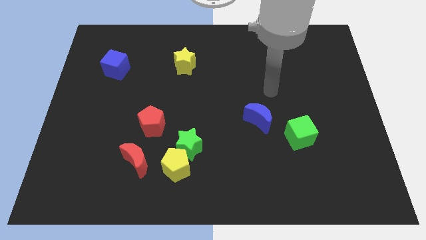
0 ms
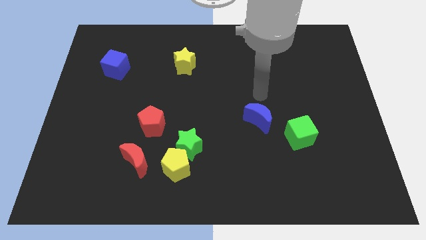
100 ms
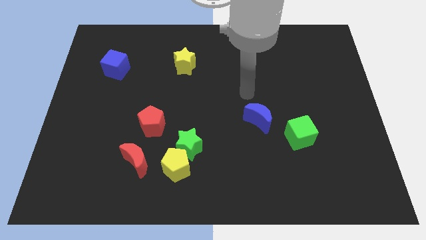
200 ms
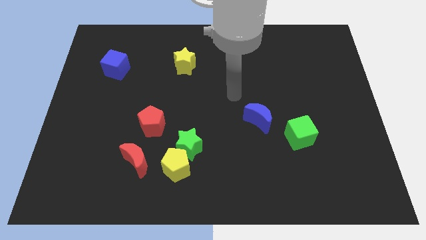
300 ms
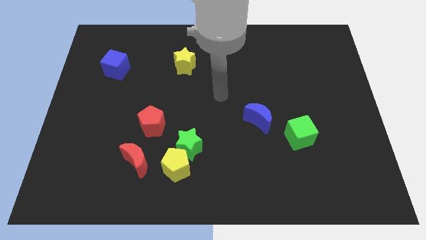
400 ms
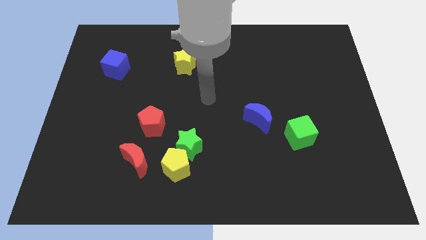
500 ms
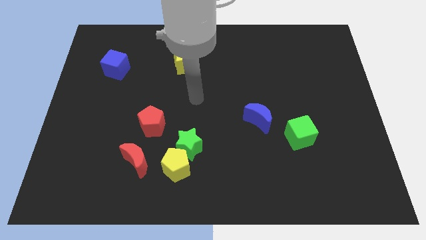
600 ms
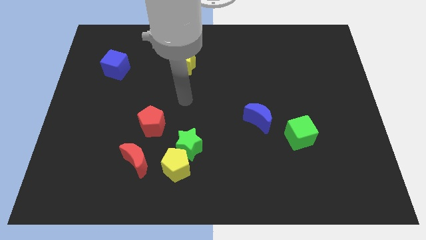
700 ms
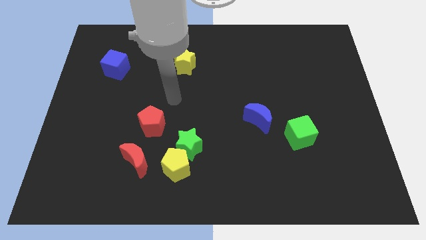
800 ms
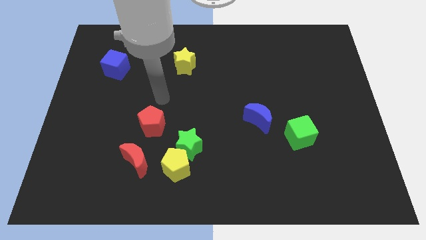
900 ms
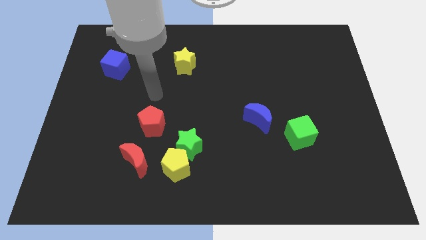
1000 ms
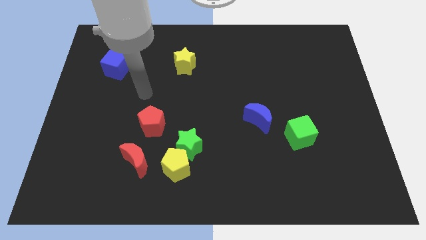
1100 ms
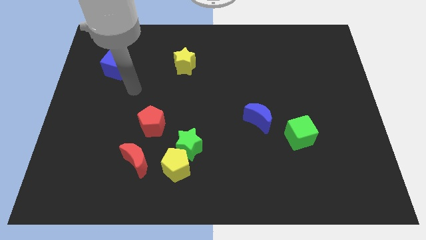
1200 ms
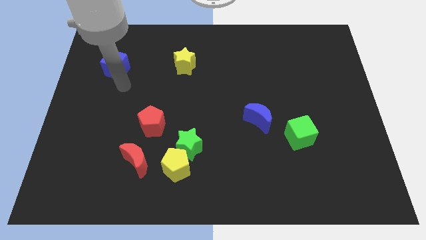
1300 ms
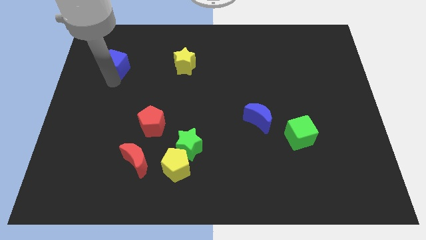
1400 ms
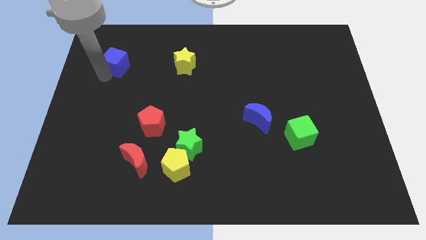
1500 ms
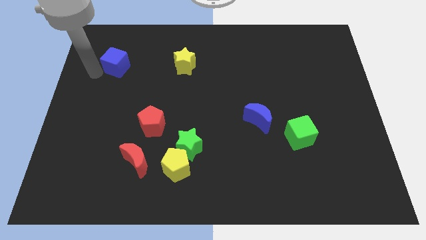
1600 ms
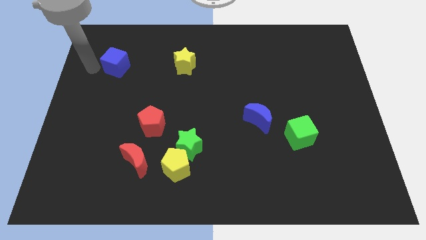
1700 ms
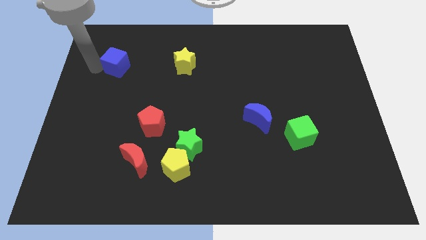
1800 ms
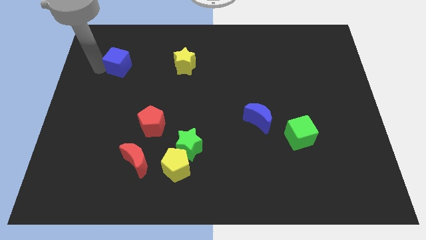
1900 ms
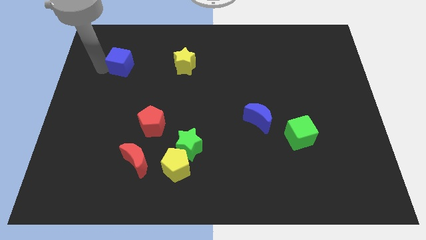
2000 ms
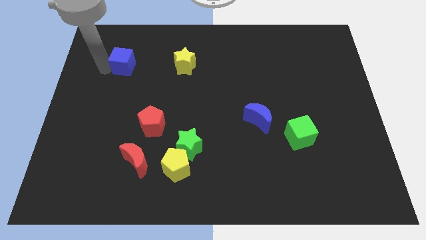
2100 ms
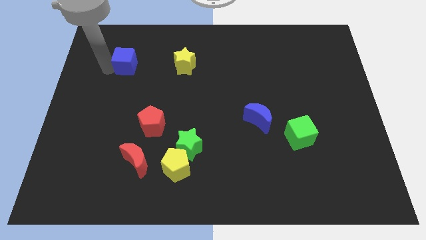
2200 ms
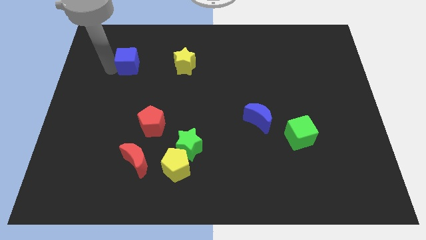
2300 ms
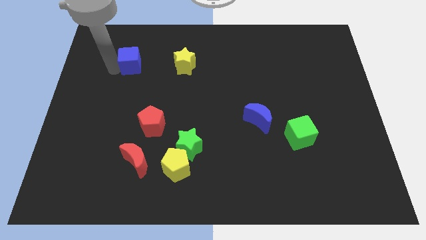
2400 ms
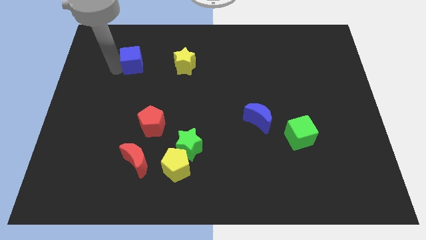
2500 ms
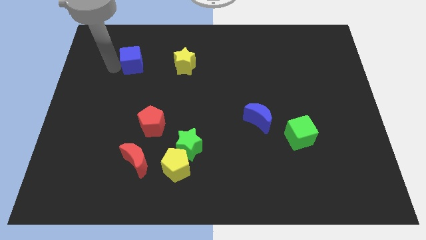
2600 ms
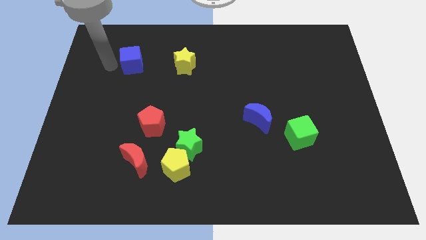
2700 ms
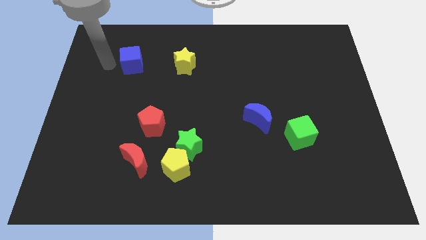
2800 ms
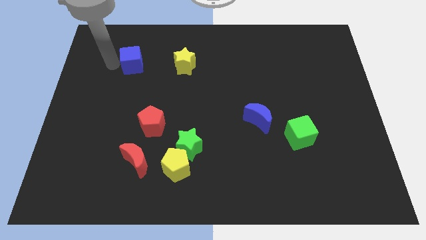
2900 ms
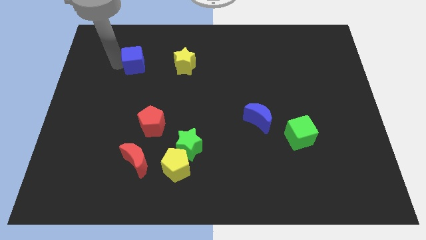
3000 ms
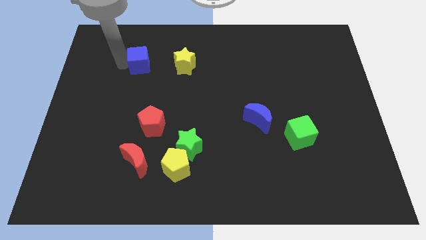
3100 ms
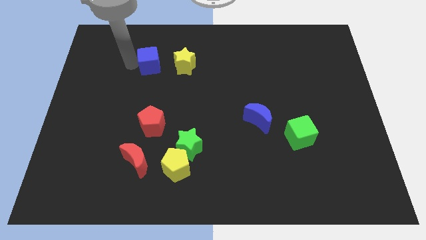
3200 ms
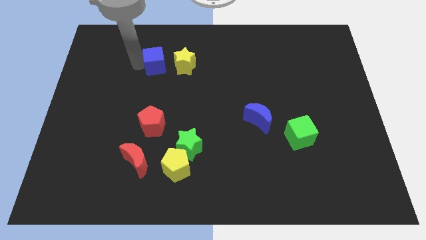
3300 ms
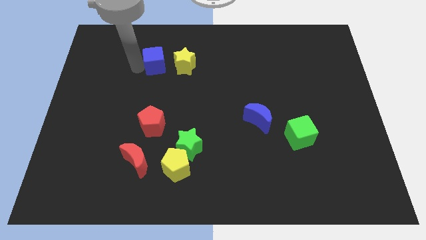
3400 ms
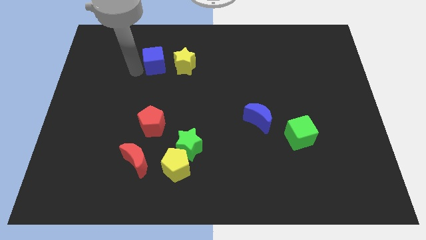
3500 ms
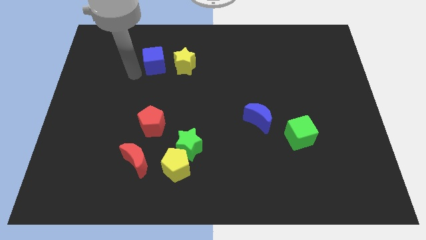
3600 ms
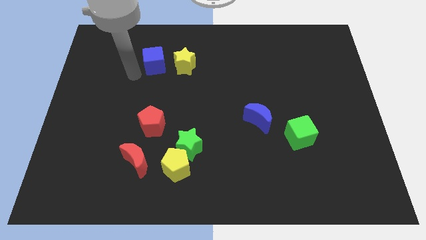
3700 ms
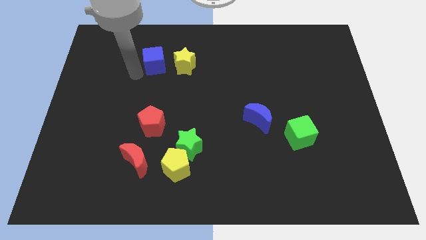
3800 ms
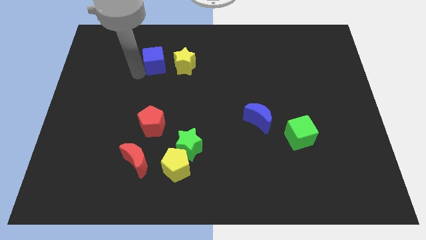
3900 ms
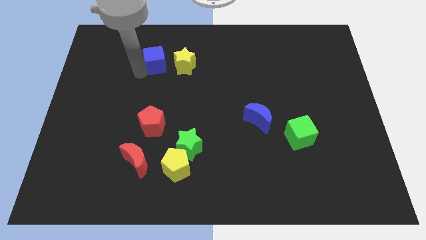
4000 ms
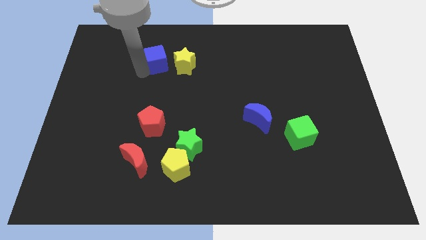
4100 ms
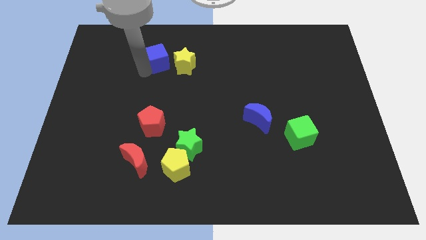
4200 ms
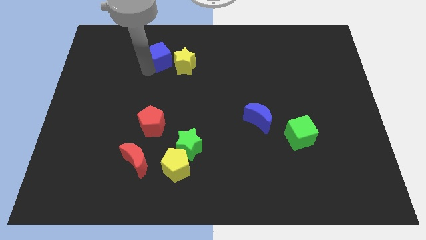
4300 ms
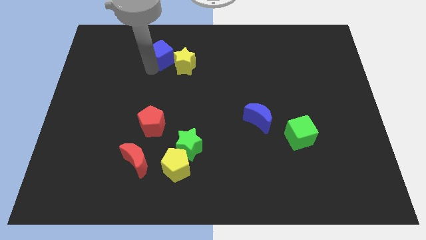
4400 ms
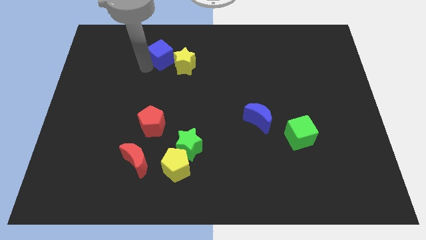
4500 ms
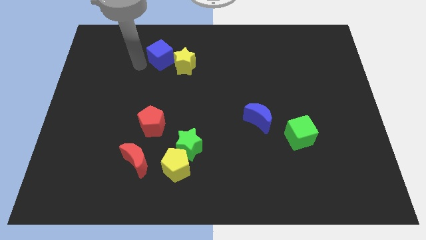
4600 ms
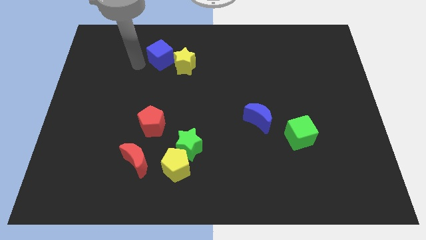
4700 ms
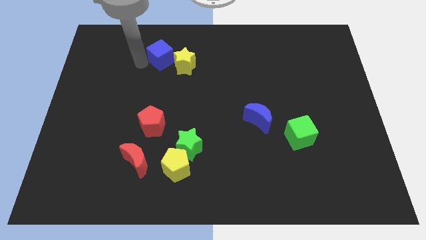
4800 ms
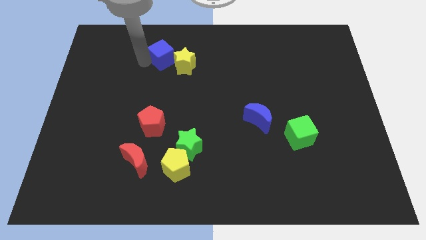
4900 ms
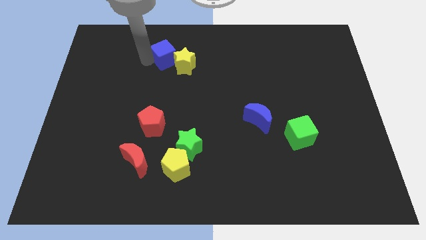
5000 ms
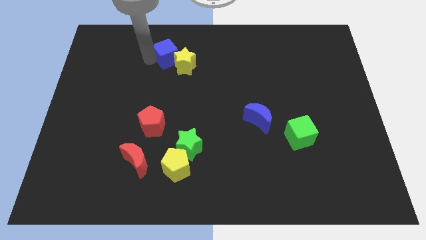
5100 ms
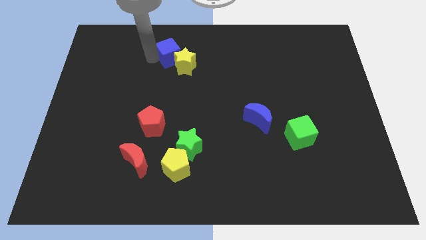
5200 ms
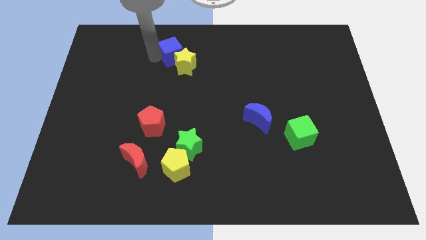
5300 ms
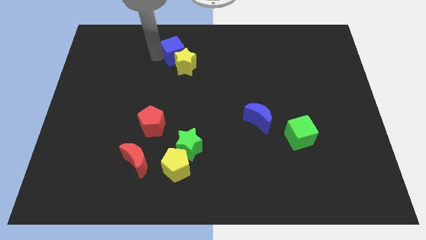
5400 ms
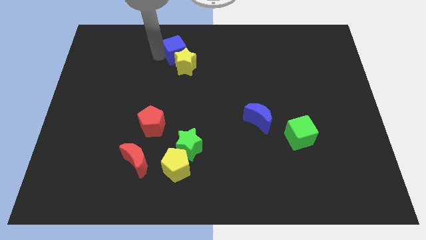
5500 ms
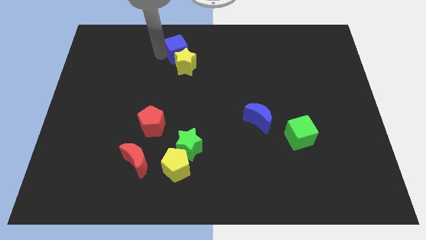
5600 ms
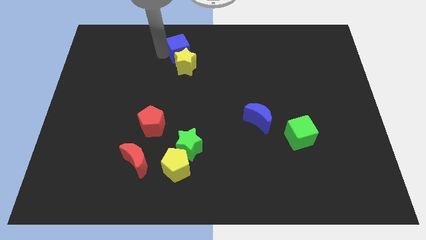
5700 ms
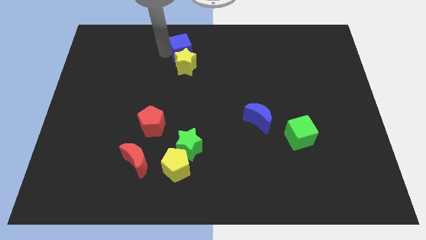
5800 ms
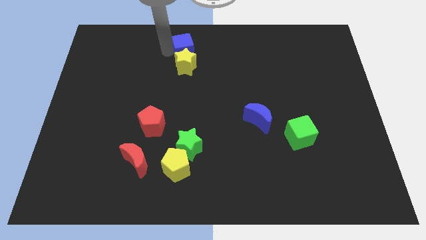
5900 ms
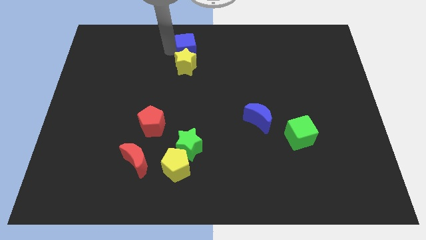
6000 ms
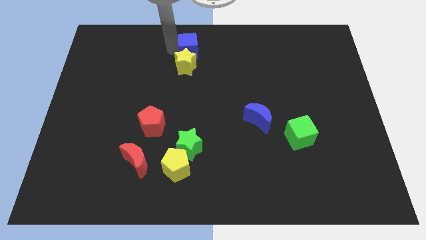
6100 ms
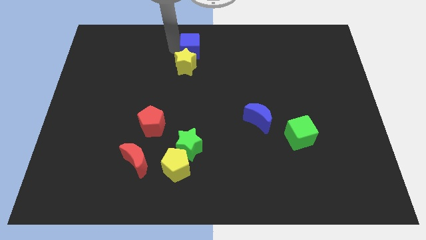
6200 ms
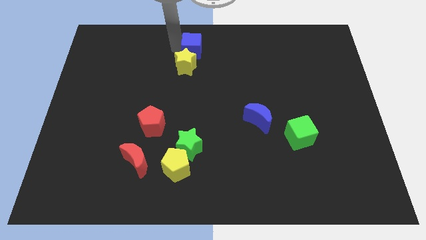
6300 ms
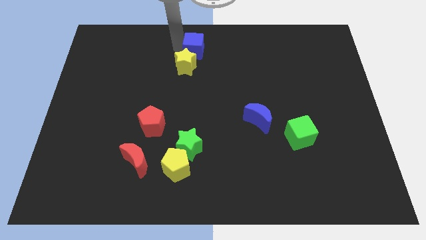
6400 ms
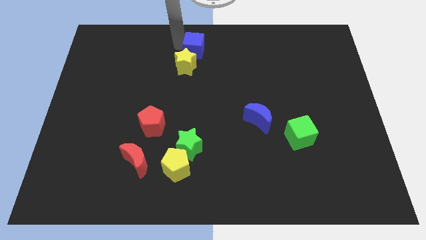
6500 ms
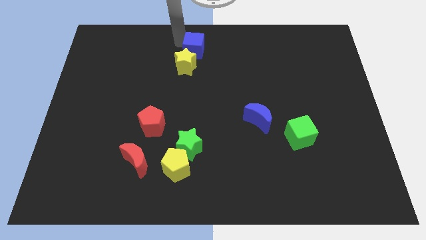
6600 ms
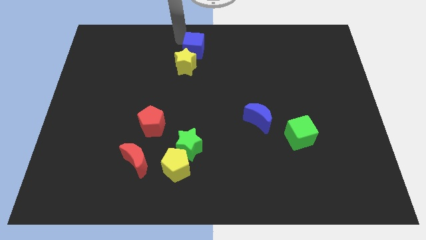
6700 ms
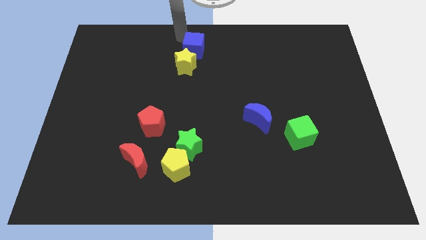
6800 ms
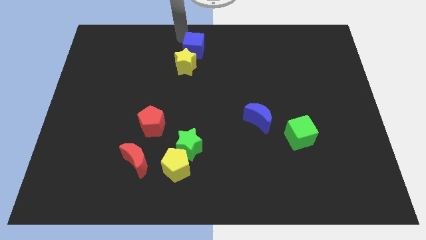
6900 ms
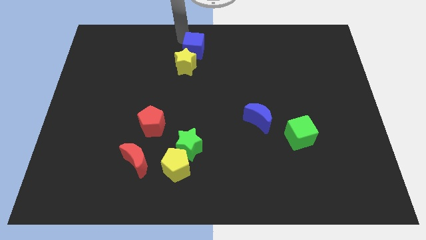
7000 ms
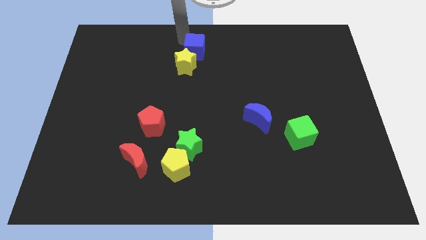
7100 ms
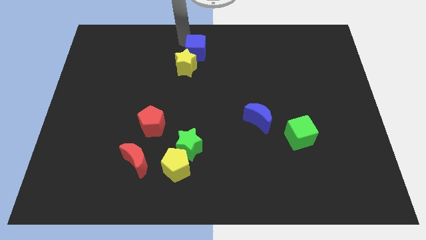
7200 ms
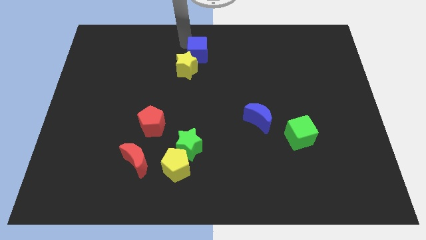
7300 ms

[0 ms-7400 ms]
slide the blue cube to the right

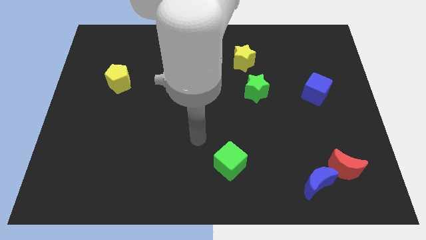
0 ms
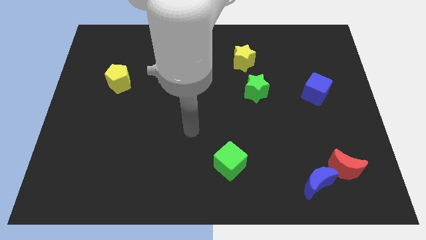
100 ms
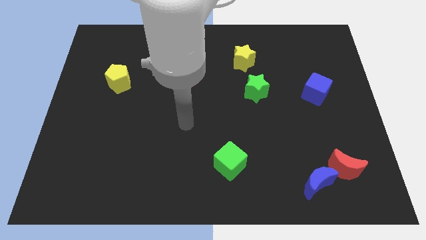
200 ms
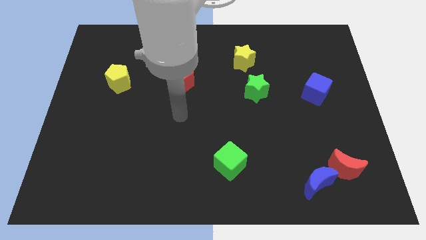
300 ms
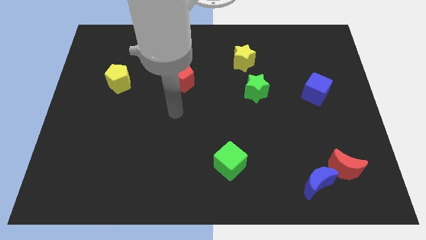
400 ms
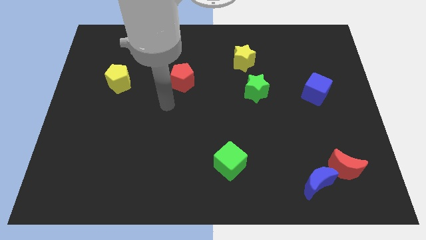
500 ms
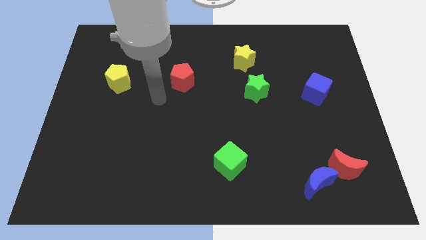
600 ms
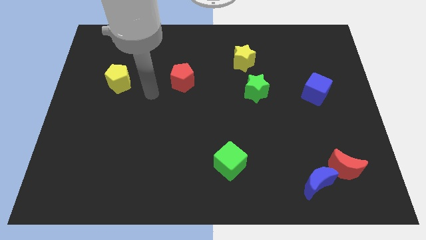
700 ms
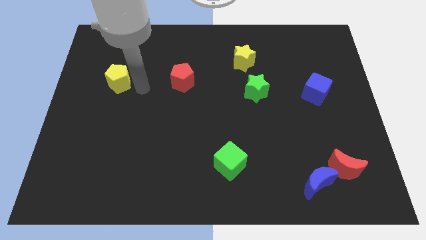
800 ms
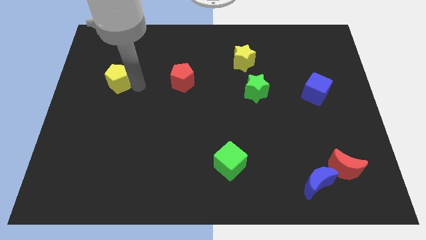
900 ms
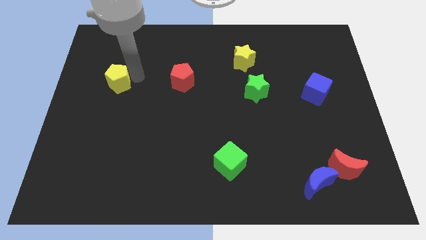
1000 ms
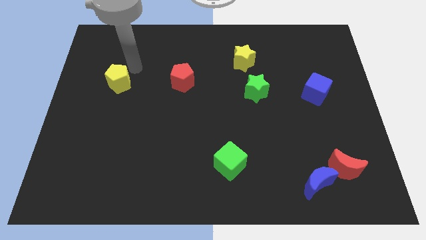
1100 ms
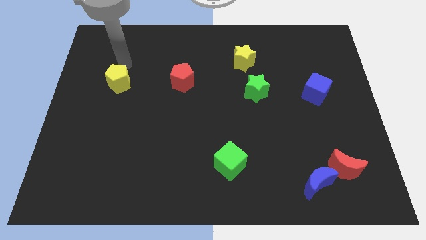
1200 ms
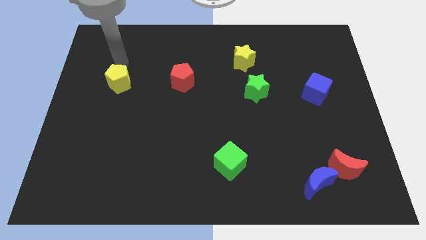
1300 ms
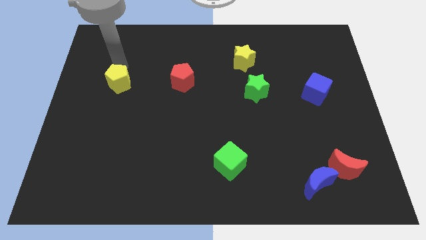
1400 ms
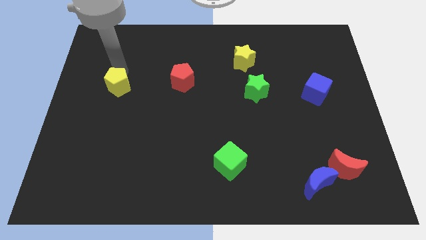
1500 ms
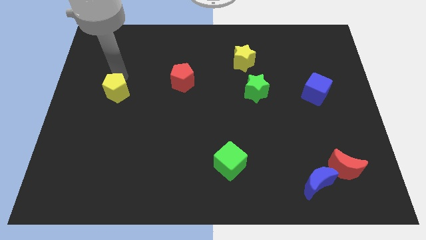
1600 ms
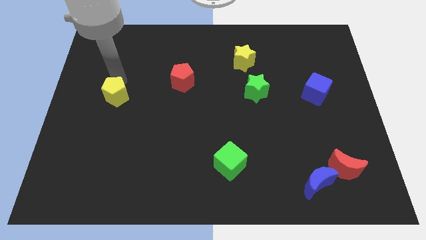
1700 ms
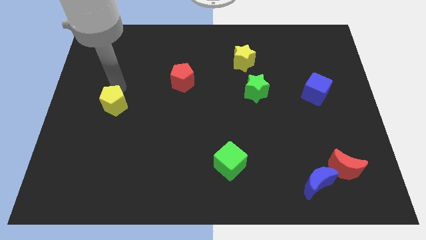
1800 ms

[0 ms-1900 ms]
push the yellow pentagon down a bit
